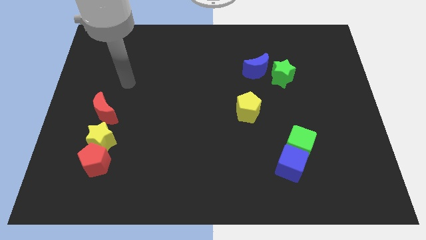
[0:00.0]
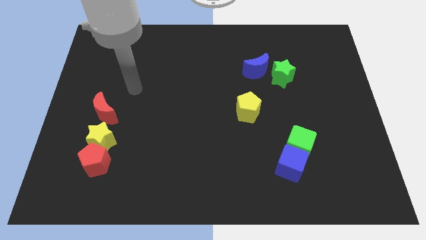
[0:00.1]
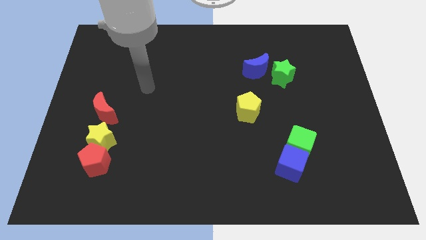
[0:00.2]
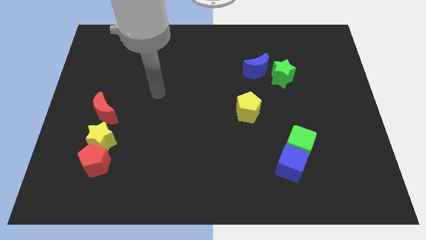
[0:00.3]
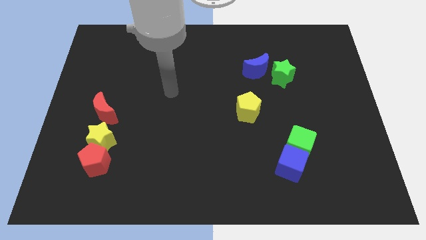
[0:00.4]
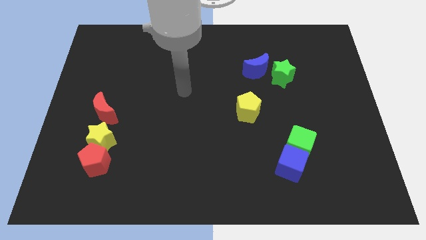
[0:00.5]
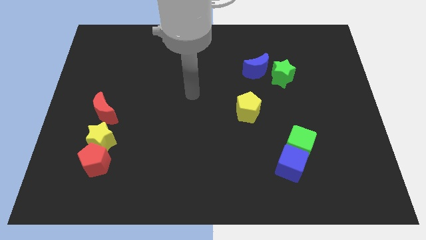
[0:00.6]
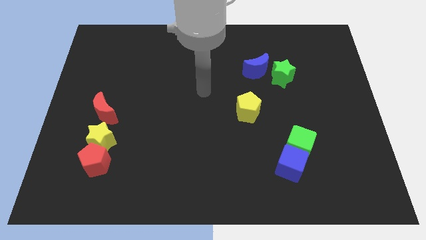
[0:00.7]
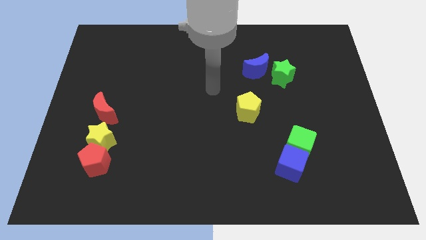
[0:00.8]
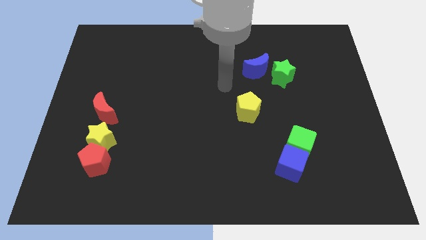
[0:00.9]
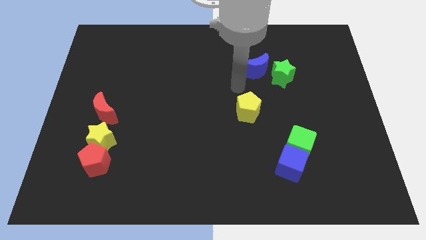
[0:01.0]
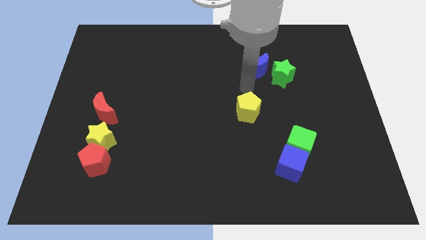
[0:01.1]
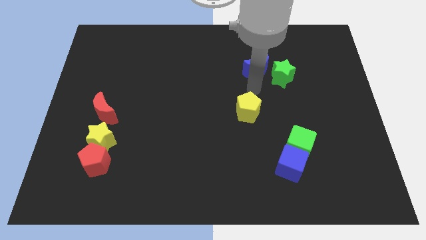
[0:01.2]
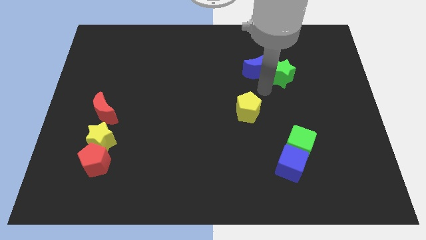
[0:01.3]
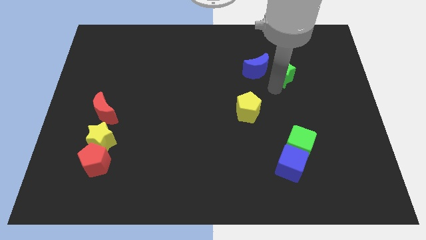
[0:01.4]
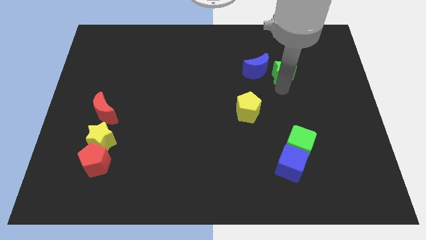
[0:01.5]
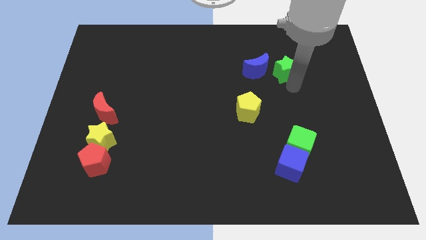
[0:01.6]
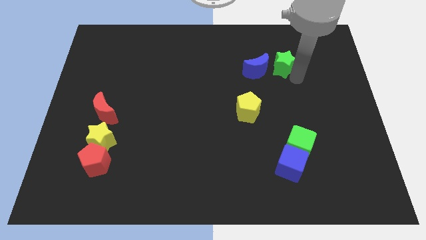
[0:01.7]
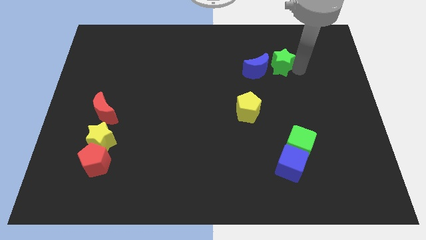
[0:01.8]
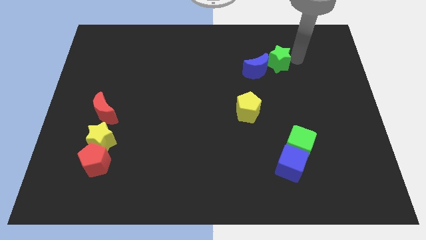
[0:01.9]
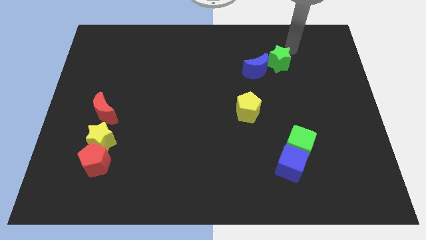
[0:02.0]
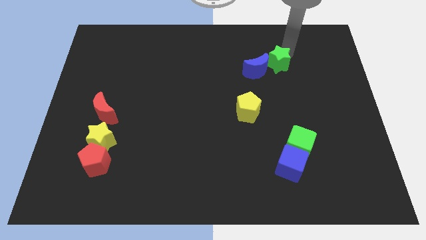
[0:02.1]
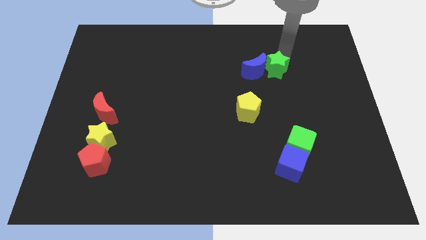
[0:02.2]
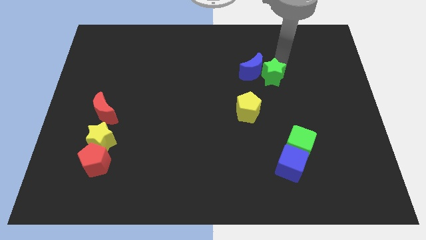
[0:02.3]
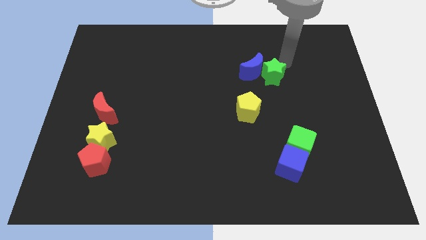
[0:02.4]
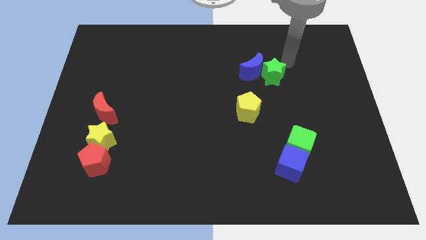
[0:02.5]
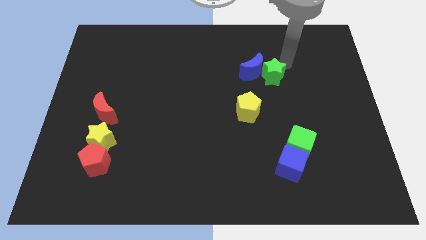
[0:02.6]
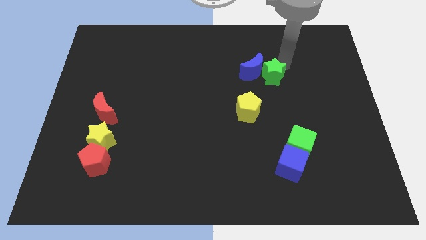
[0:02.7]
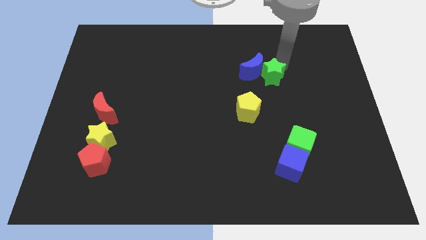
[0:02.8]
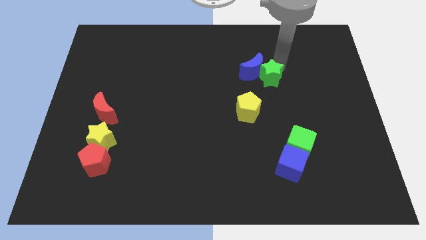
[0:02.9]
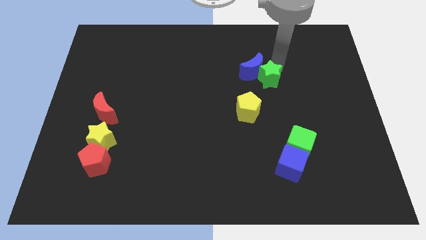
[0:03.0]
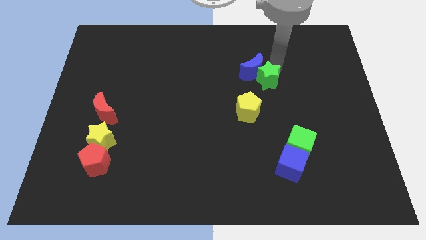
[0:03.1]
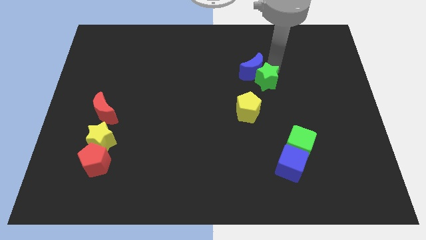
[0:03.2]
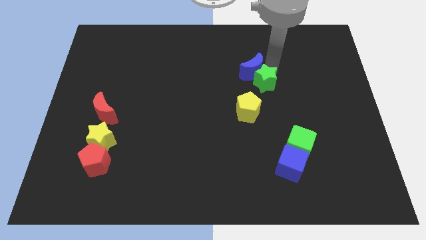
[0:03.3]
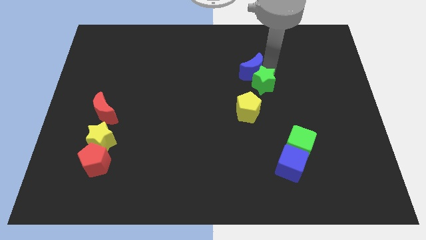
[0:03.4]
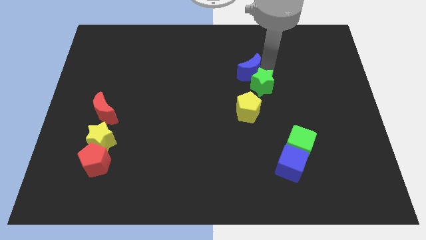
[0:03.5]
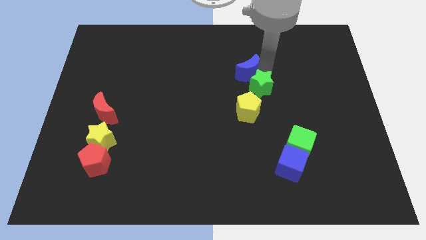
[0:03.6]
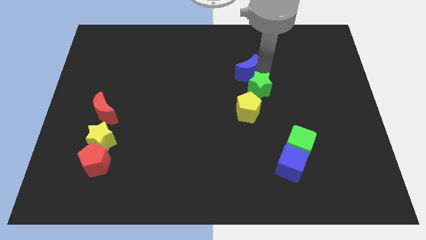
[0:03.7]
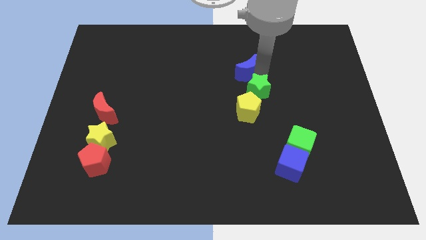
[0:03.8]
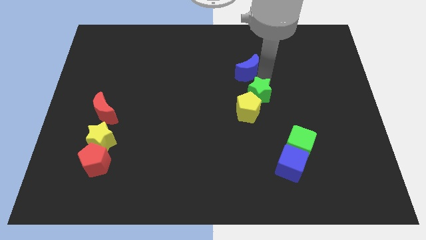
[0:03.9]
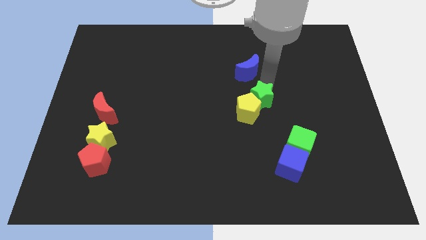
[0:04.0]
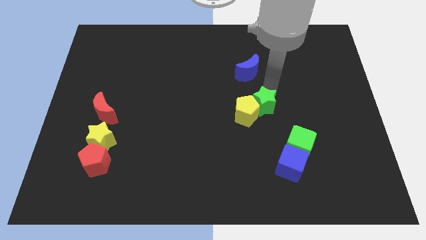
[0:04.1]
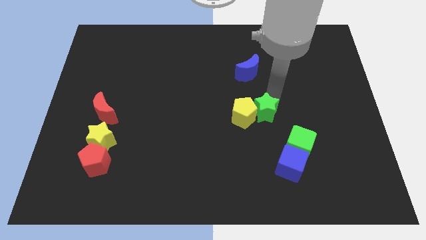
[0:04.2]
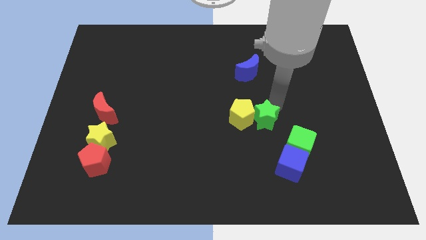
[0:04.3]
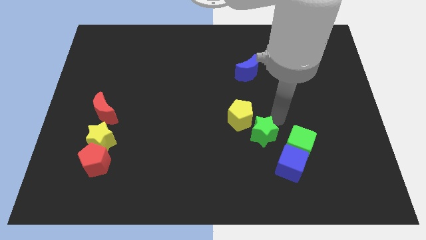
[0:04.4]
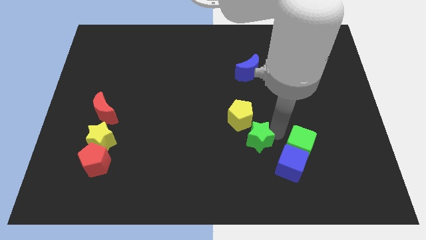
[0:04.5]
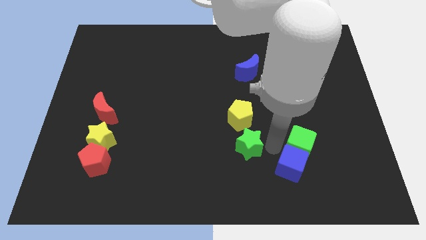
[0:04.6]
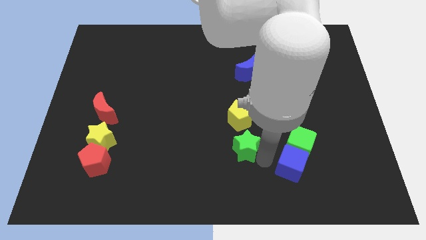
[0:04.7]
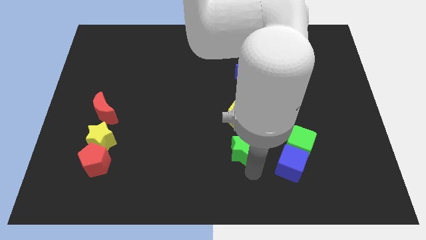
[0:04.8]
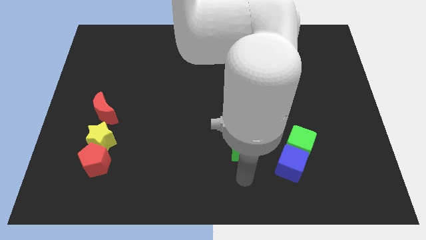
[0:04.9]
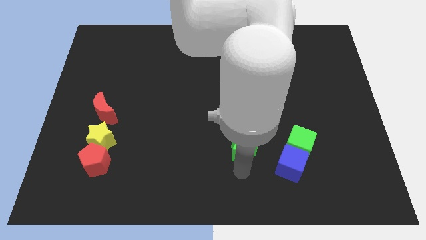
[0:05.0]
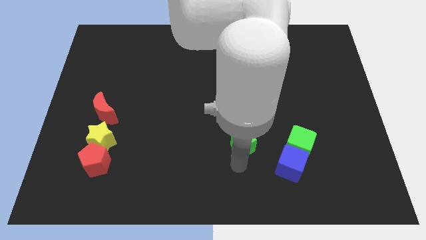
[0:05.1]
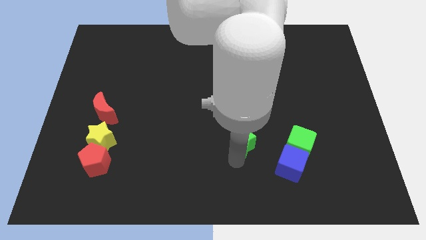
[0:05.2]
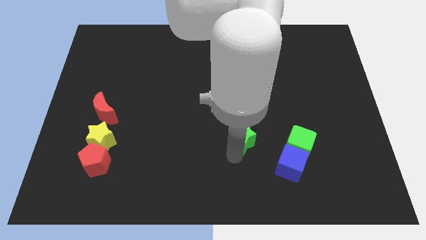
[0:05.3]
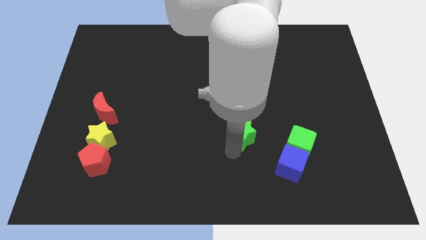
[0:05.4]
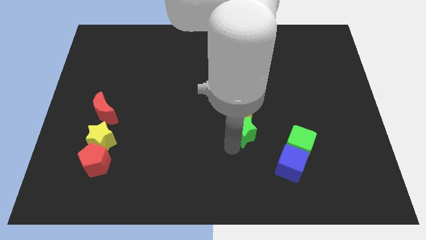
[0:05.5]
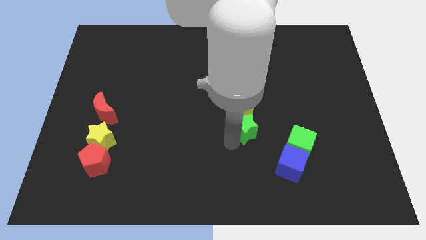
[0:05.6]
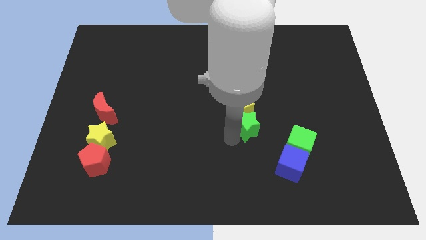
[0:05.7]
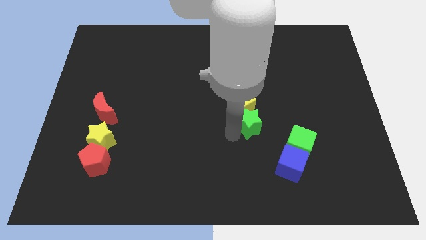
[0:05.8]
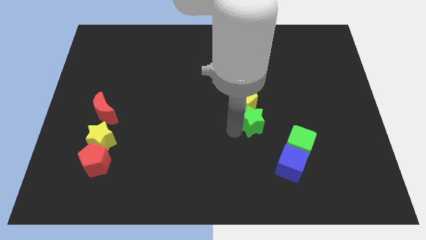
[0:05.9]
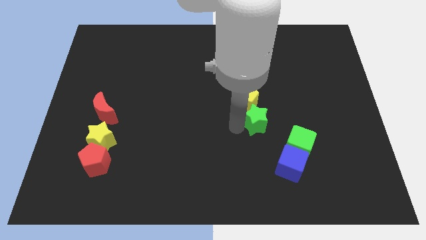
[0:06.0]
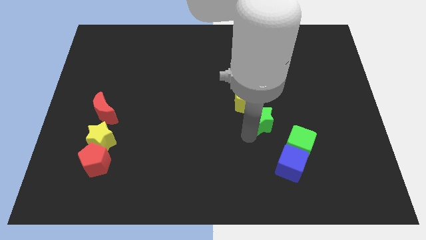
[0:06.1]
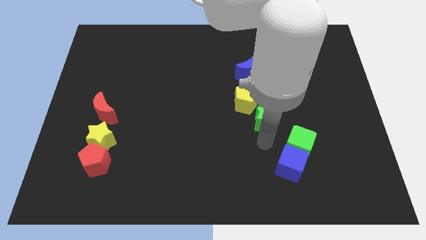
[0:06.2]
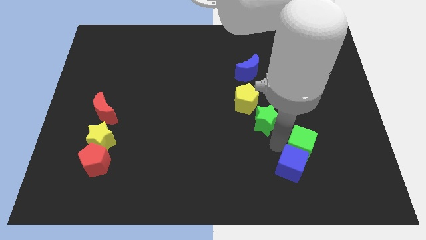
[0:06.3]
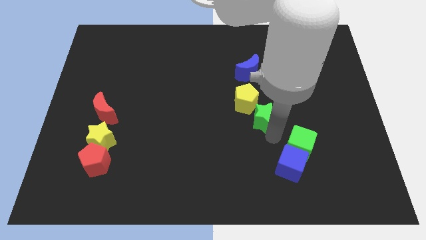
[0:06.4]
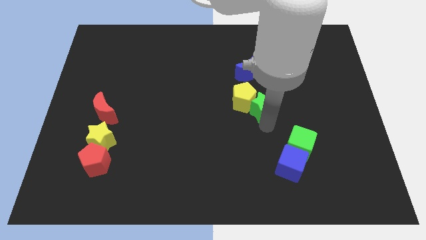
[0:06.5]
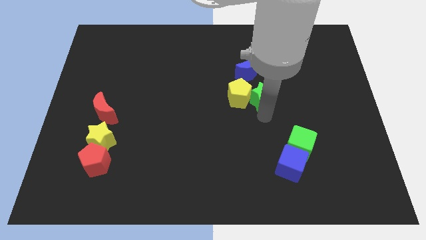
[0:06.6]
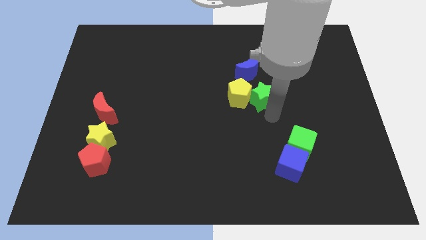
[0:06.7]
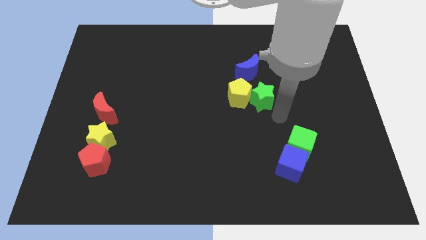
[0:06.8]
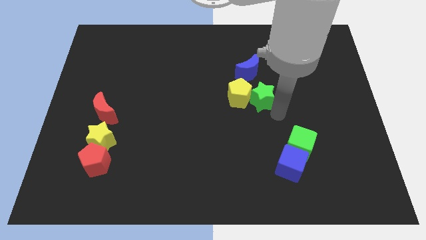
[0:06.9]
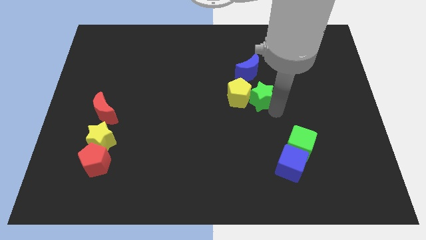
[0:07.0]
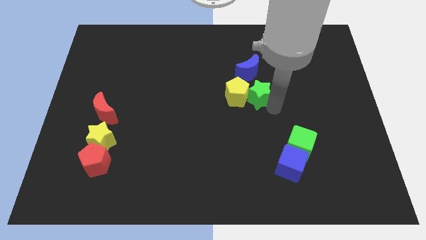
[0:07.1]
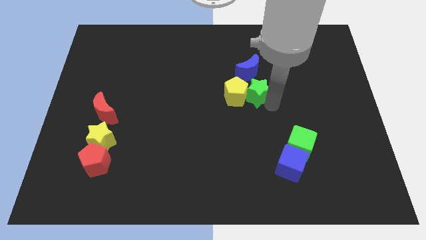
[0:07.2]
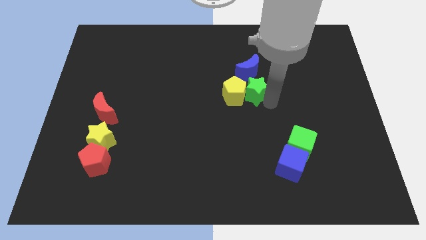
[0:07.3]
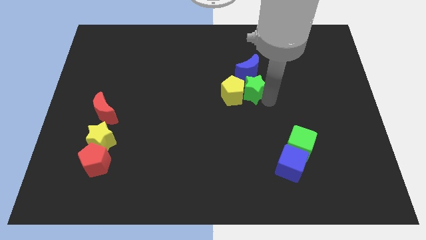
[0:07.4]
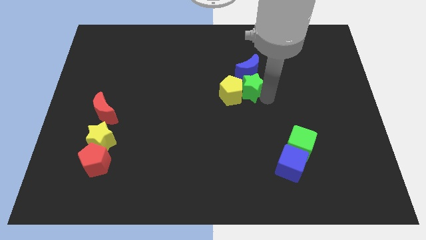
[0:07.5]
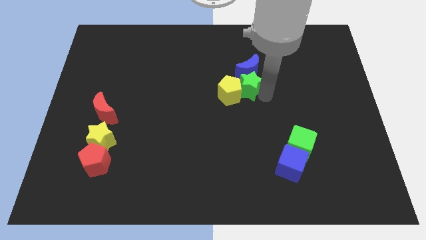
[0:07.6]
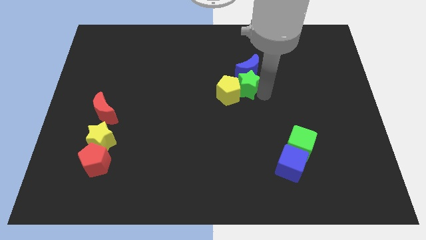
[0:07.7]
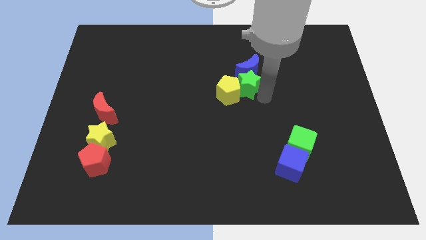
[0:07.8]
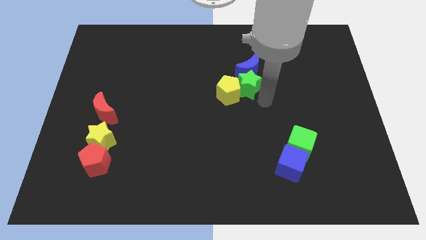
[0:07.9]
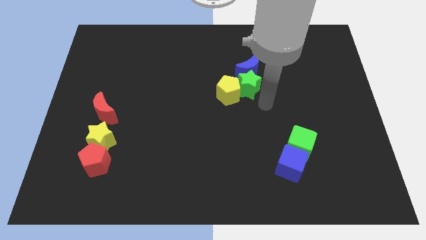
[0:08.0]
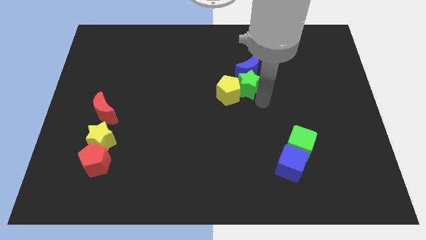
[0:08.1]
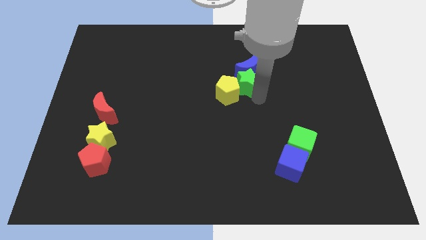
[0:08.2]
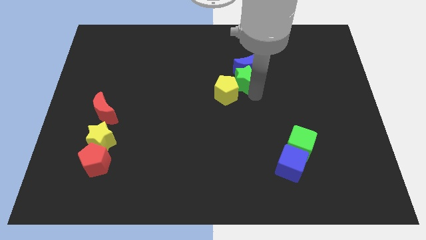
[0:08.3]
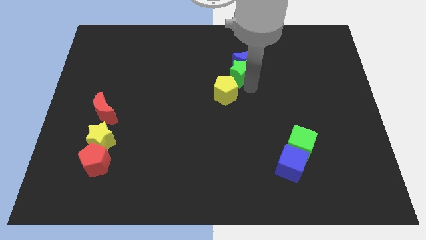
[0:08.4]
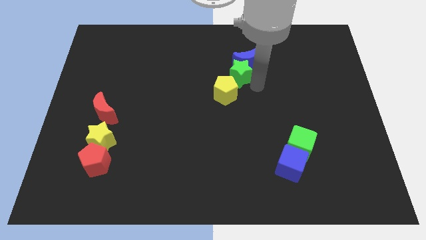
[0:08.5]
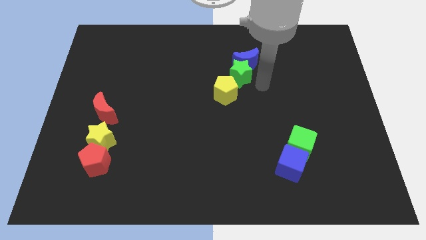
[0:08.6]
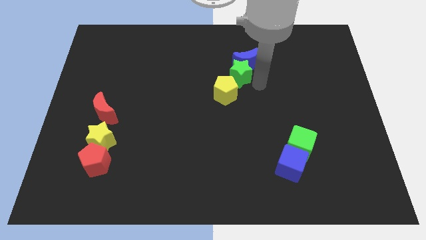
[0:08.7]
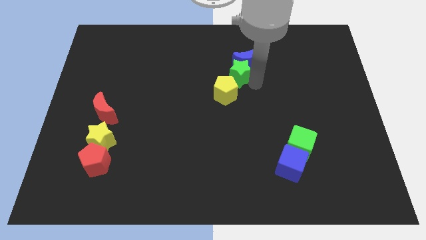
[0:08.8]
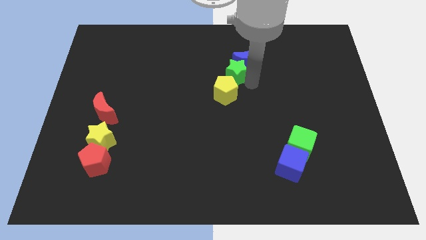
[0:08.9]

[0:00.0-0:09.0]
push the green star left of the blue moon
